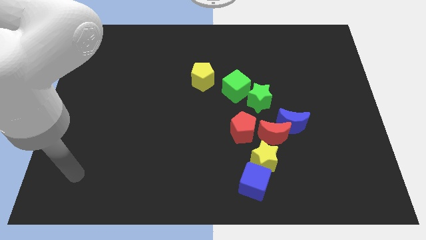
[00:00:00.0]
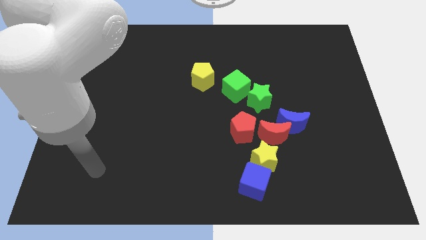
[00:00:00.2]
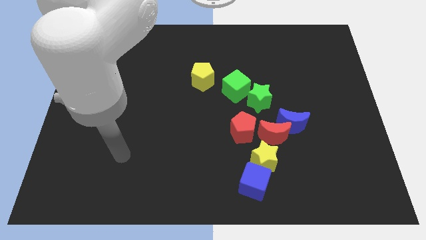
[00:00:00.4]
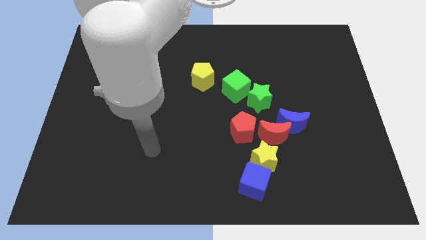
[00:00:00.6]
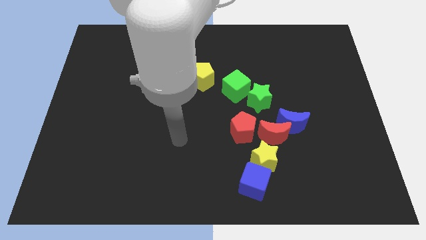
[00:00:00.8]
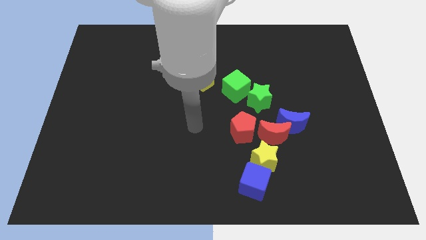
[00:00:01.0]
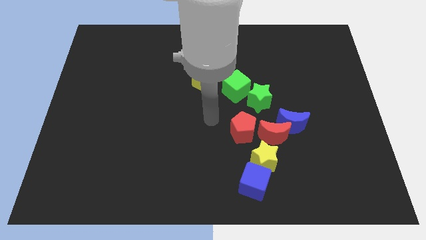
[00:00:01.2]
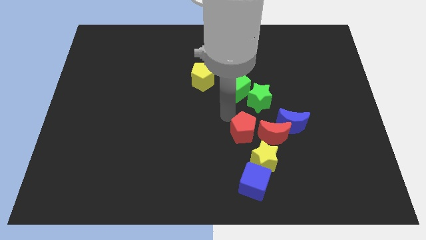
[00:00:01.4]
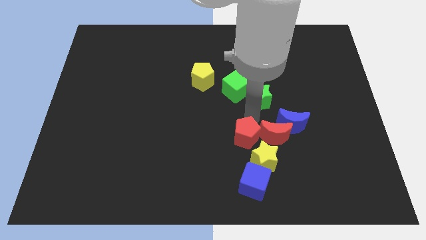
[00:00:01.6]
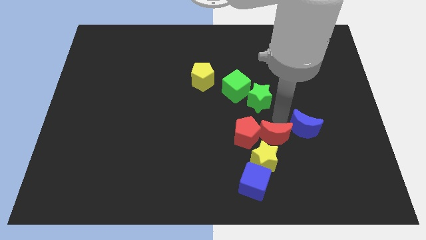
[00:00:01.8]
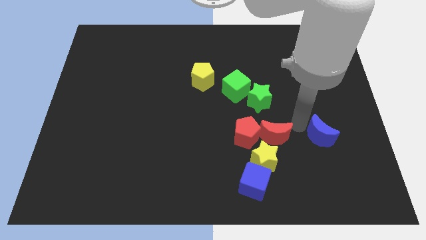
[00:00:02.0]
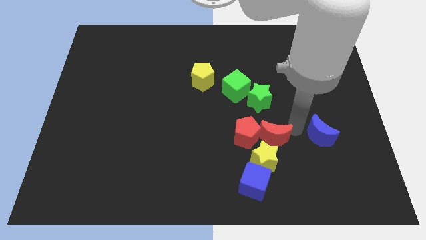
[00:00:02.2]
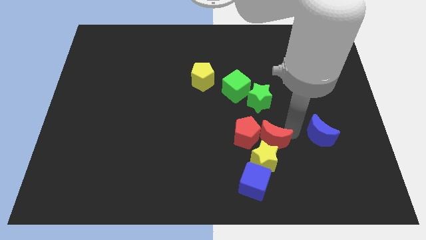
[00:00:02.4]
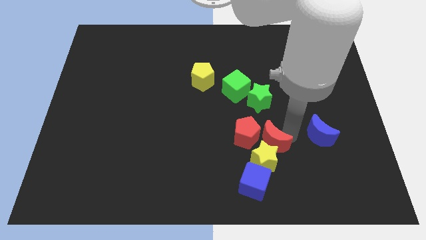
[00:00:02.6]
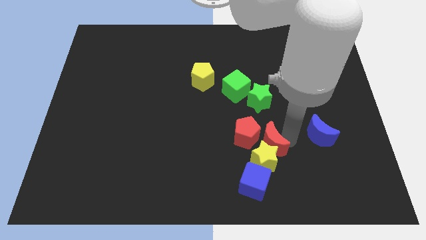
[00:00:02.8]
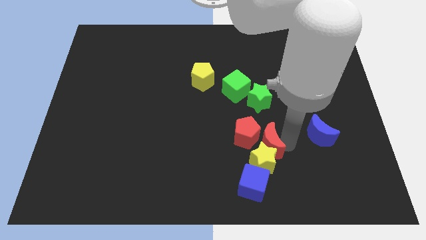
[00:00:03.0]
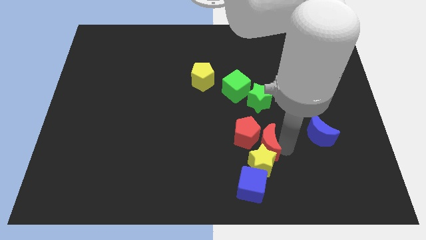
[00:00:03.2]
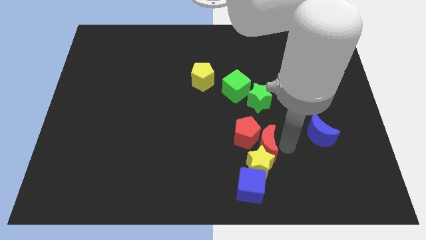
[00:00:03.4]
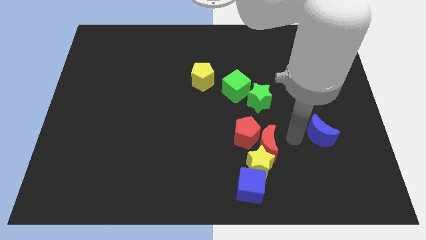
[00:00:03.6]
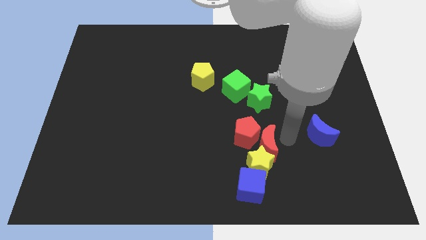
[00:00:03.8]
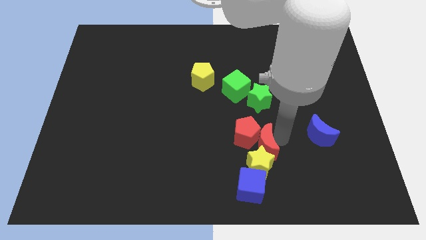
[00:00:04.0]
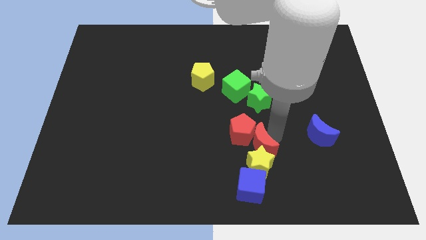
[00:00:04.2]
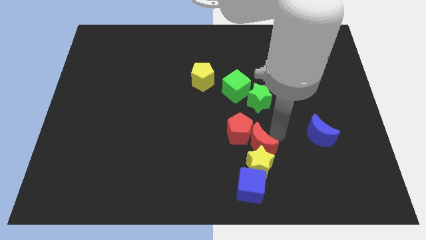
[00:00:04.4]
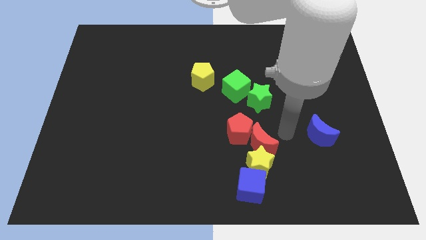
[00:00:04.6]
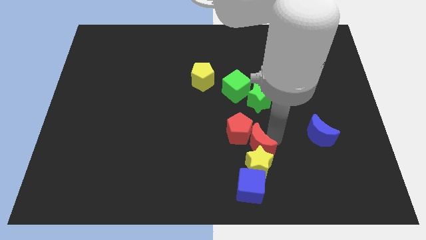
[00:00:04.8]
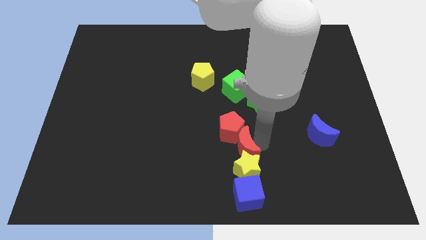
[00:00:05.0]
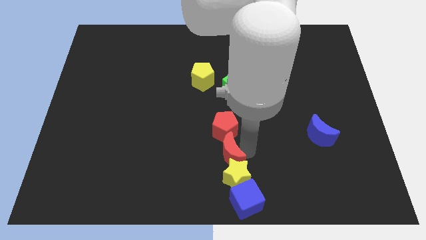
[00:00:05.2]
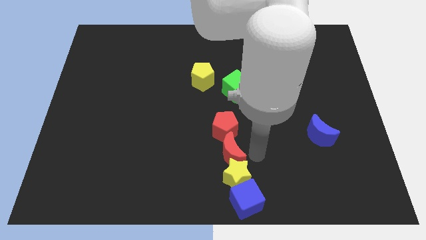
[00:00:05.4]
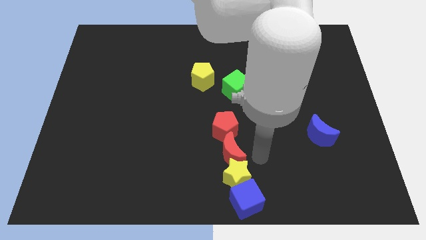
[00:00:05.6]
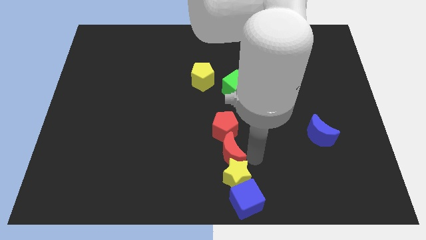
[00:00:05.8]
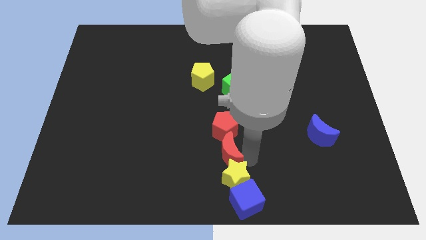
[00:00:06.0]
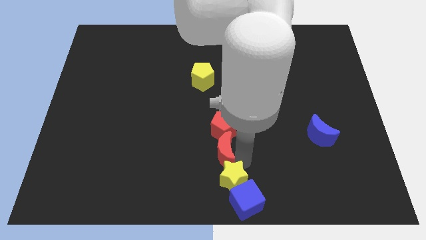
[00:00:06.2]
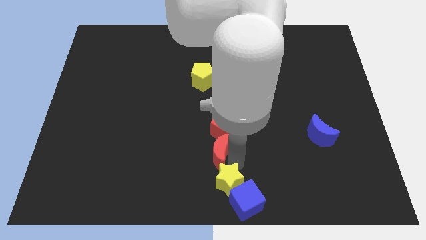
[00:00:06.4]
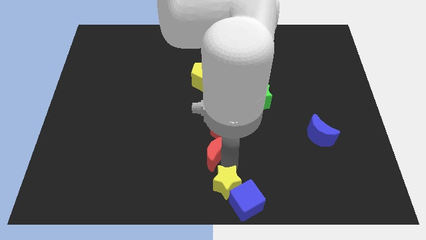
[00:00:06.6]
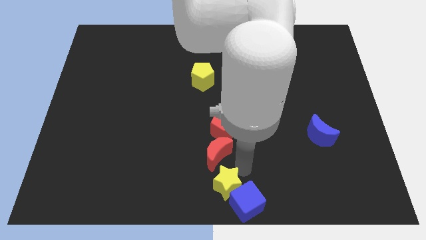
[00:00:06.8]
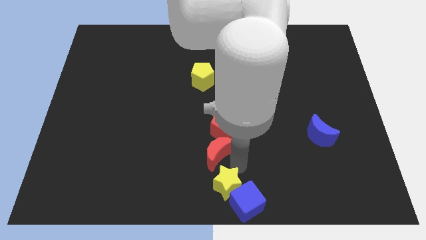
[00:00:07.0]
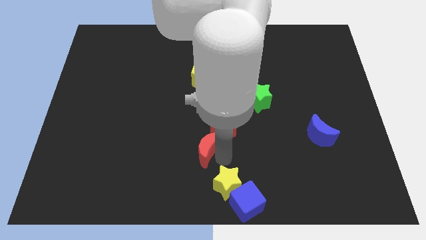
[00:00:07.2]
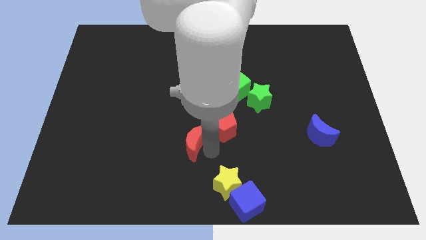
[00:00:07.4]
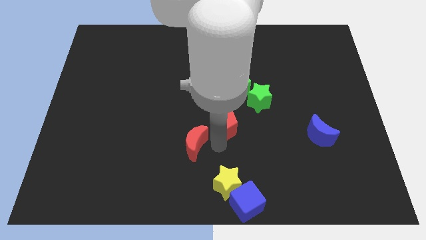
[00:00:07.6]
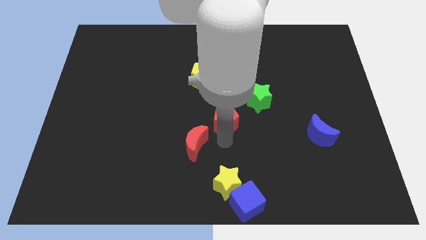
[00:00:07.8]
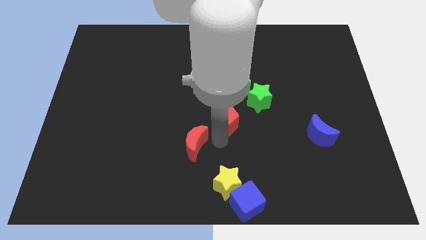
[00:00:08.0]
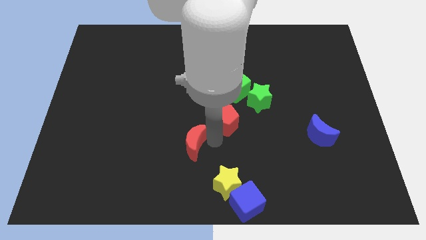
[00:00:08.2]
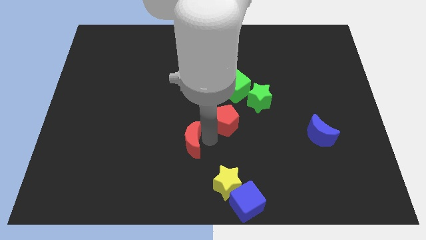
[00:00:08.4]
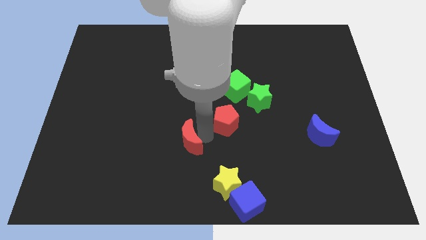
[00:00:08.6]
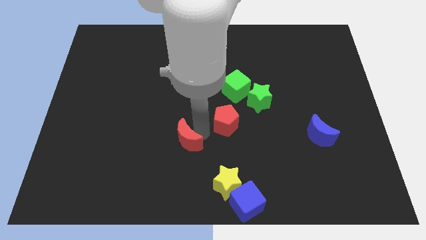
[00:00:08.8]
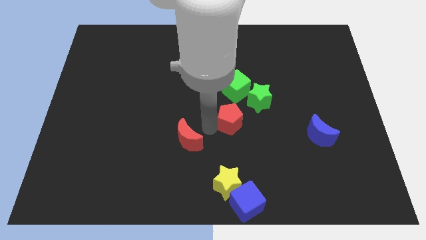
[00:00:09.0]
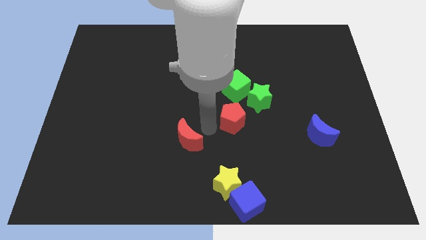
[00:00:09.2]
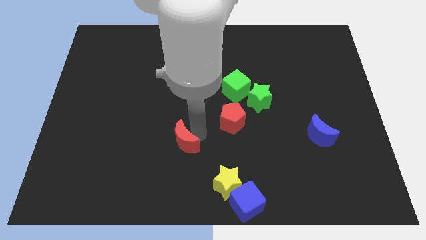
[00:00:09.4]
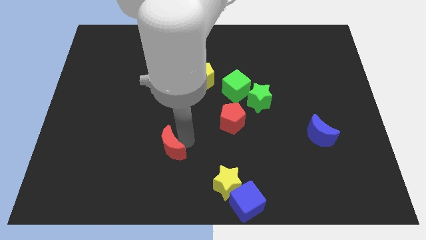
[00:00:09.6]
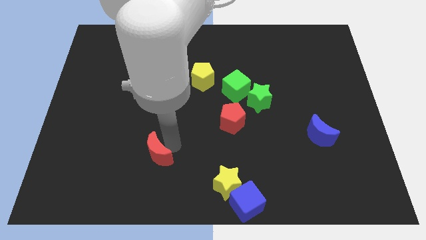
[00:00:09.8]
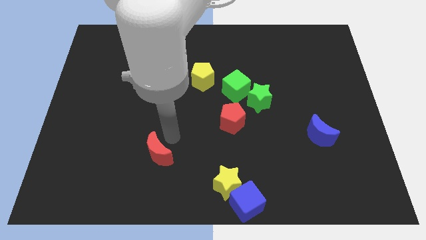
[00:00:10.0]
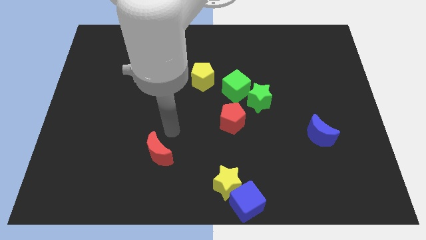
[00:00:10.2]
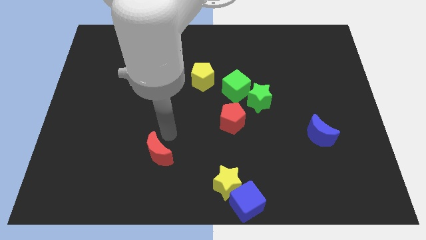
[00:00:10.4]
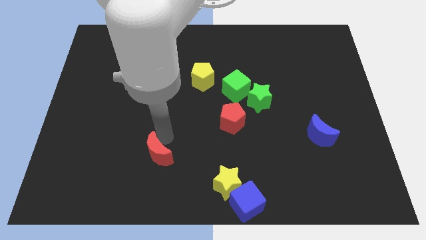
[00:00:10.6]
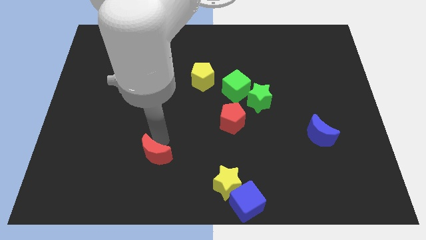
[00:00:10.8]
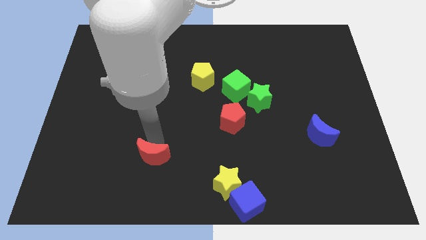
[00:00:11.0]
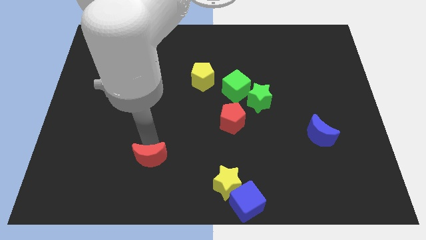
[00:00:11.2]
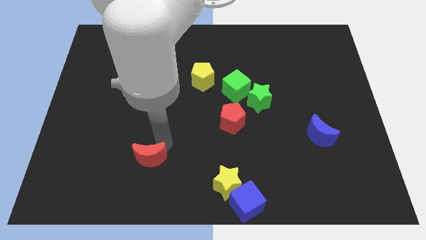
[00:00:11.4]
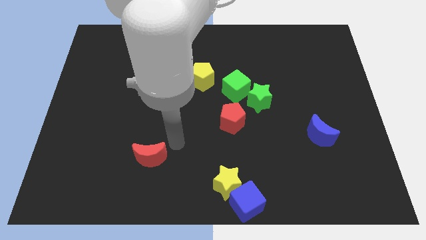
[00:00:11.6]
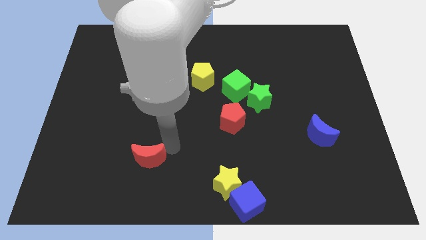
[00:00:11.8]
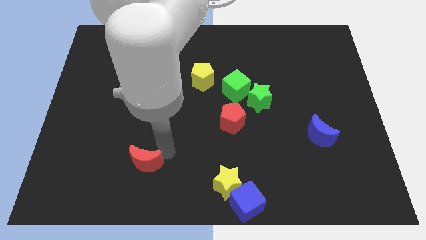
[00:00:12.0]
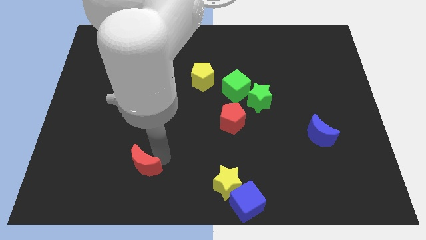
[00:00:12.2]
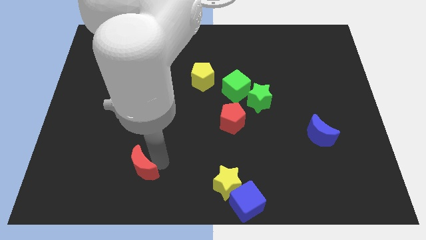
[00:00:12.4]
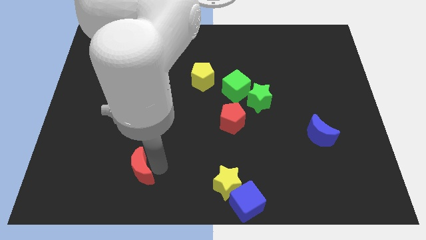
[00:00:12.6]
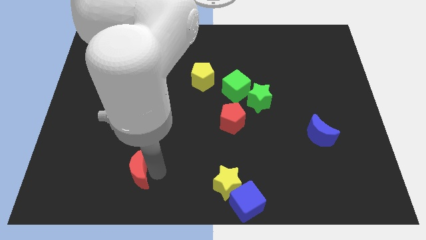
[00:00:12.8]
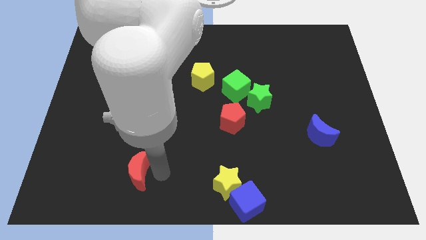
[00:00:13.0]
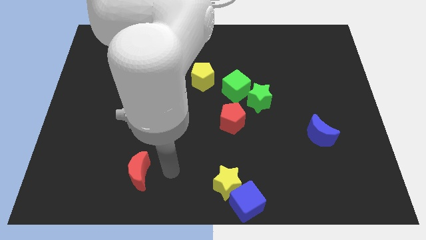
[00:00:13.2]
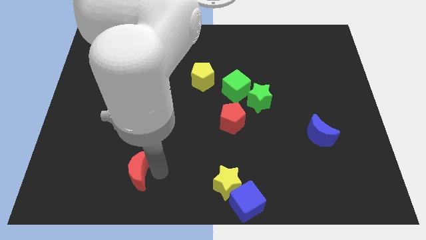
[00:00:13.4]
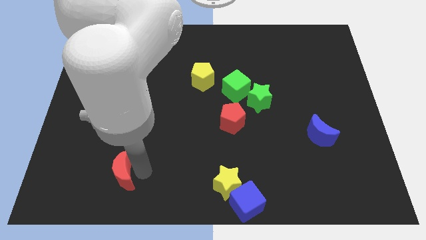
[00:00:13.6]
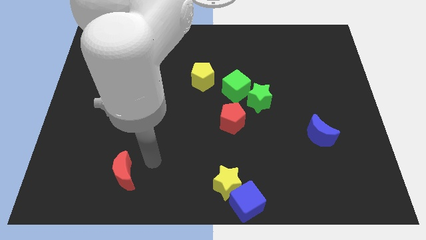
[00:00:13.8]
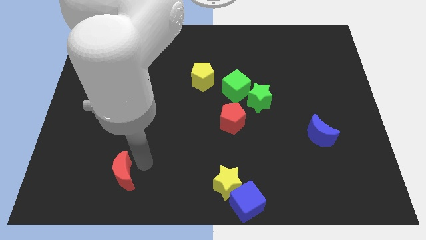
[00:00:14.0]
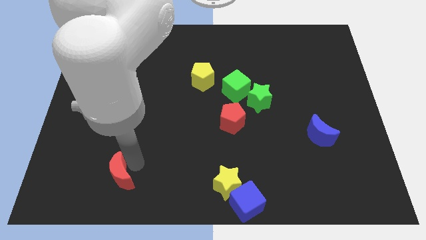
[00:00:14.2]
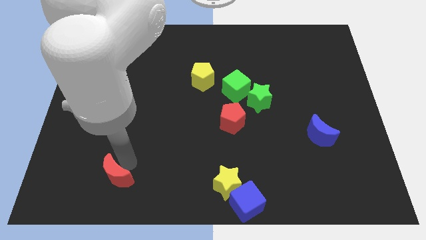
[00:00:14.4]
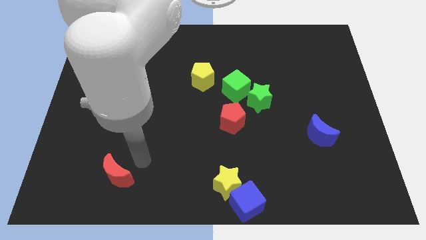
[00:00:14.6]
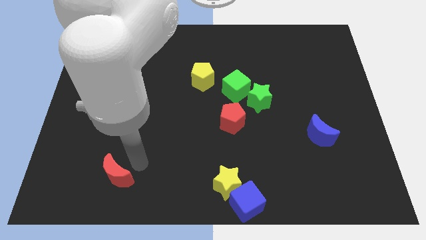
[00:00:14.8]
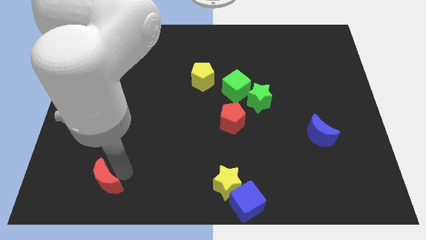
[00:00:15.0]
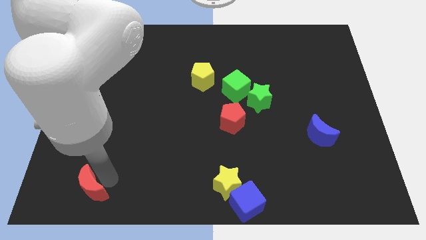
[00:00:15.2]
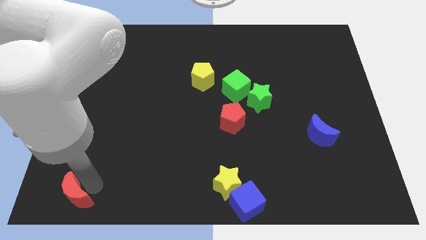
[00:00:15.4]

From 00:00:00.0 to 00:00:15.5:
slide the red moon to the bottom left of the board
